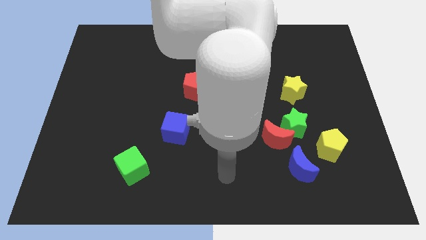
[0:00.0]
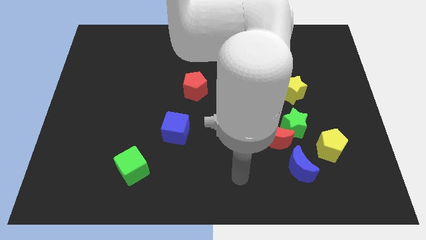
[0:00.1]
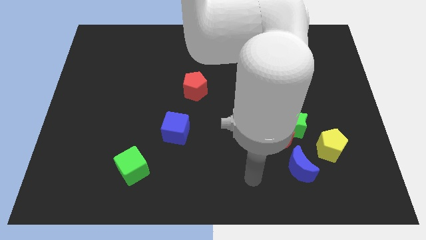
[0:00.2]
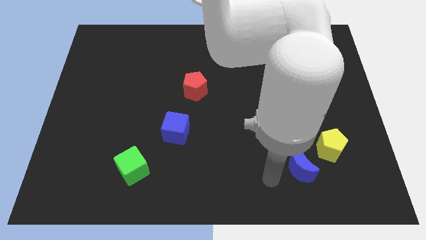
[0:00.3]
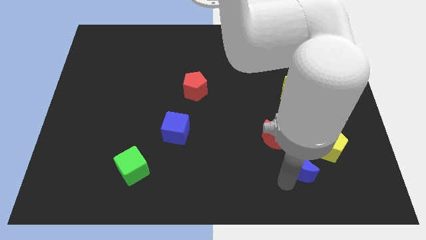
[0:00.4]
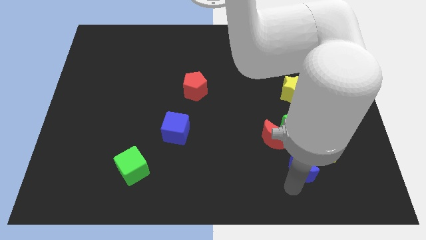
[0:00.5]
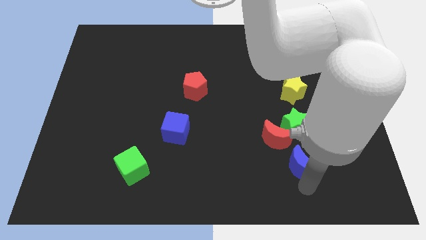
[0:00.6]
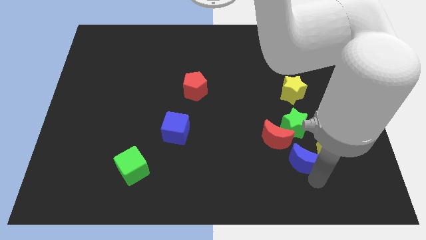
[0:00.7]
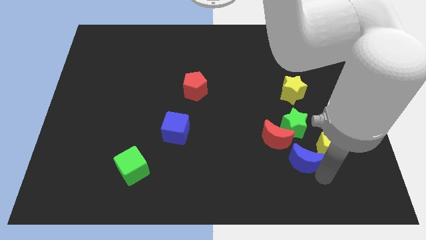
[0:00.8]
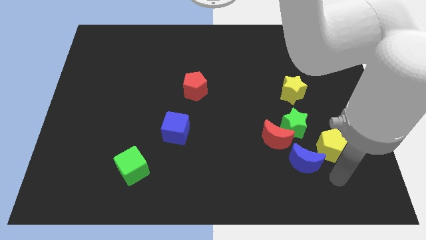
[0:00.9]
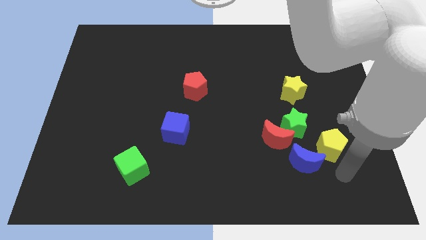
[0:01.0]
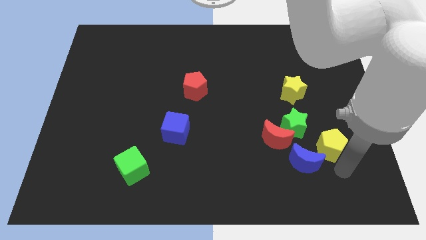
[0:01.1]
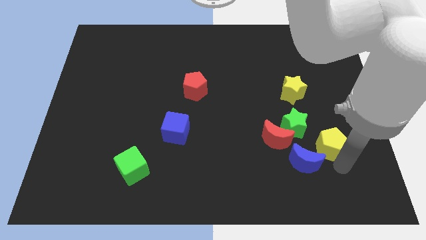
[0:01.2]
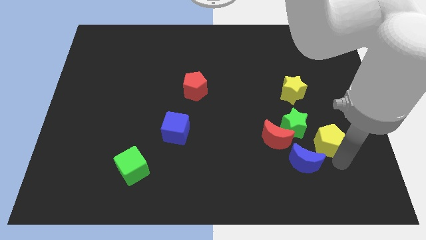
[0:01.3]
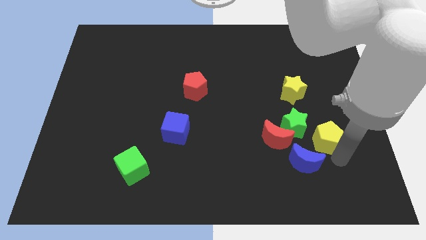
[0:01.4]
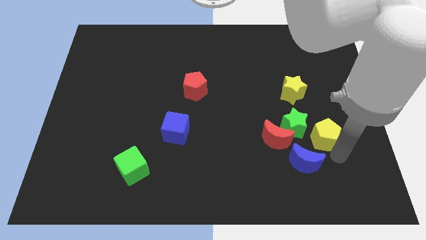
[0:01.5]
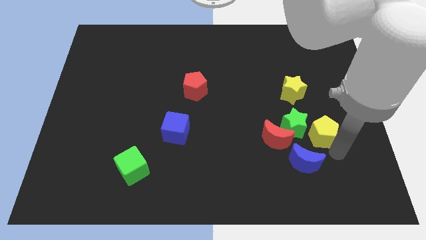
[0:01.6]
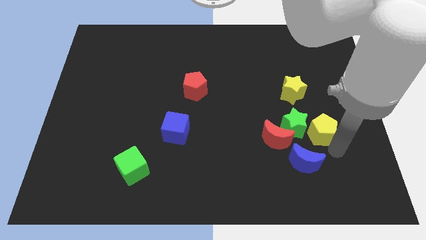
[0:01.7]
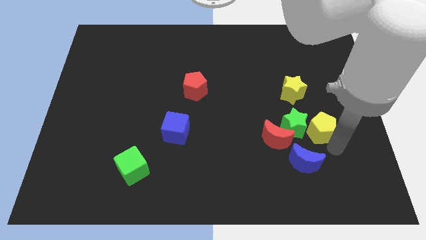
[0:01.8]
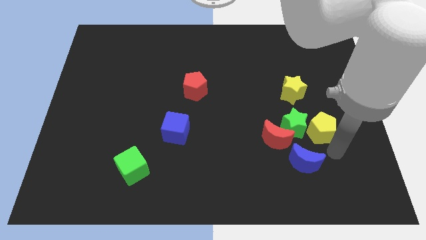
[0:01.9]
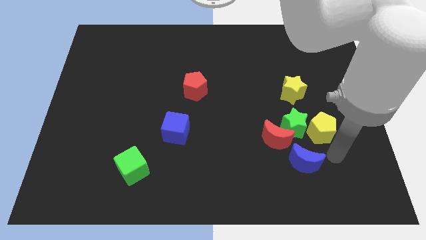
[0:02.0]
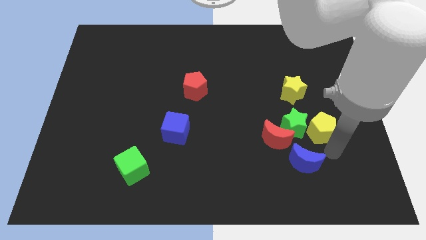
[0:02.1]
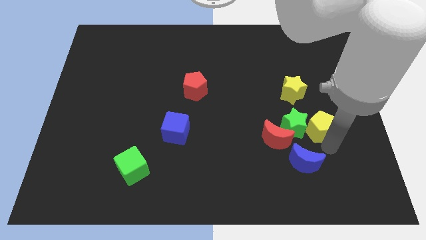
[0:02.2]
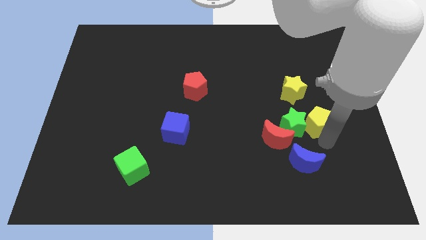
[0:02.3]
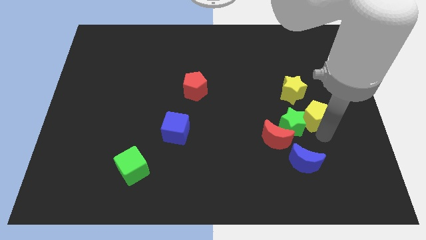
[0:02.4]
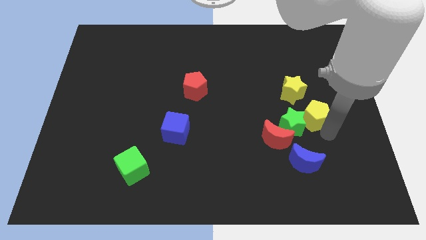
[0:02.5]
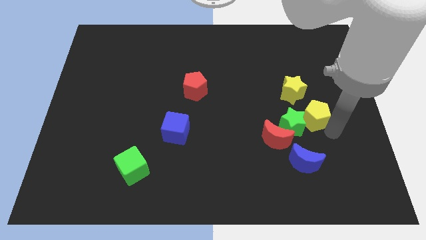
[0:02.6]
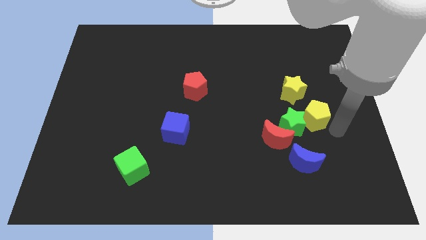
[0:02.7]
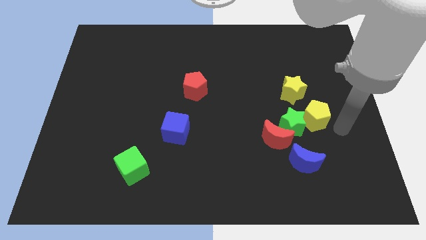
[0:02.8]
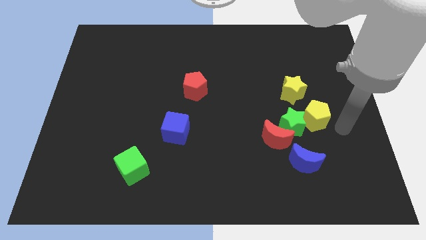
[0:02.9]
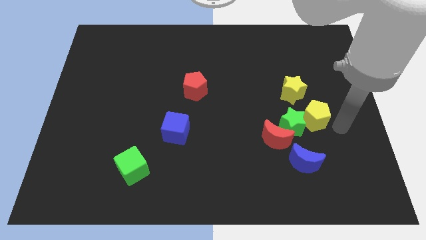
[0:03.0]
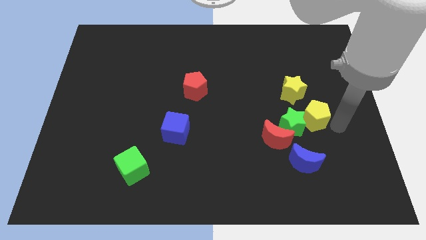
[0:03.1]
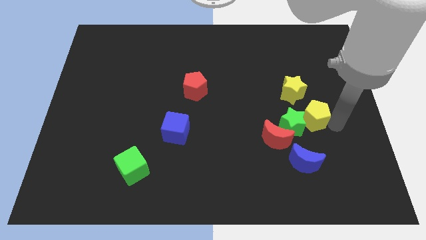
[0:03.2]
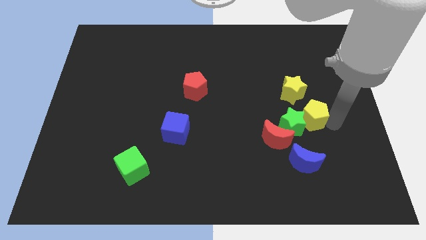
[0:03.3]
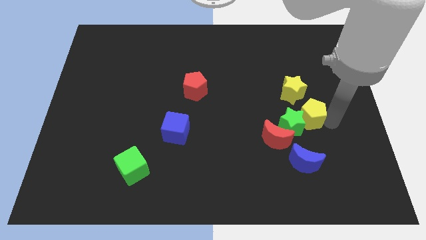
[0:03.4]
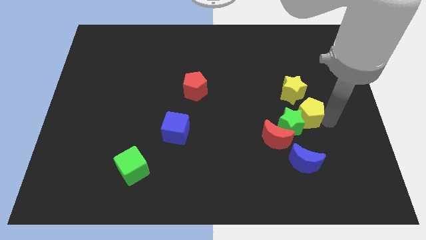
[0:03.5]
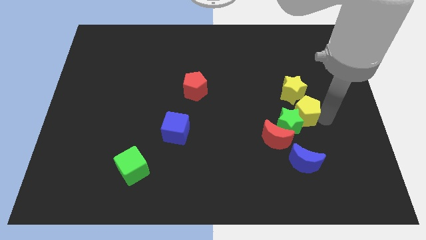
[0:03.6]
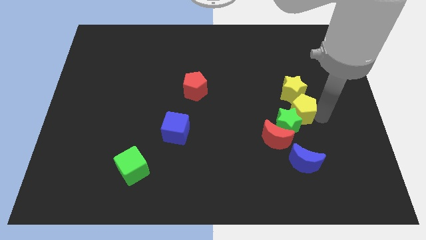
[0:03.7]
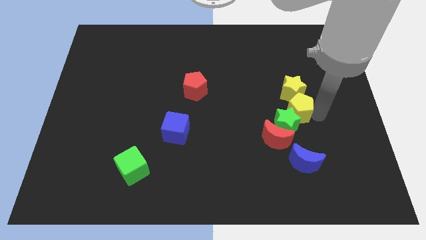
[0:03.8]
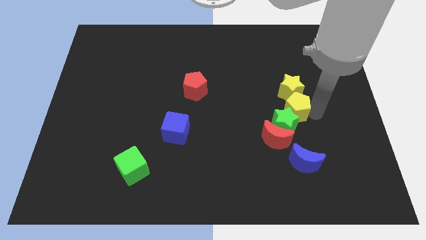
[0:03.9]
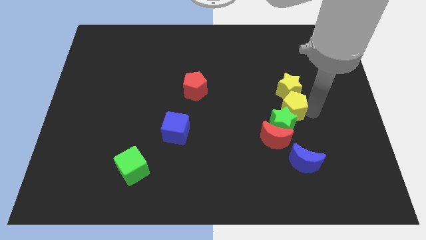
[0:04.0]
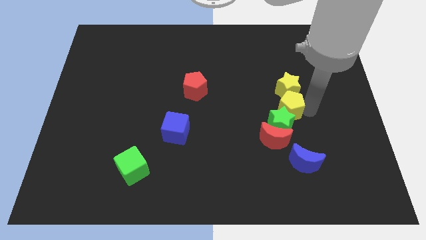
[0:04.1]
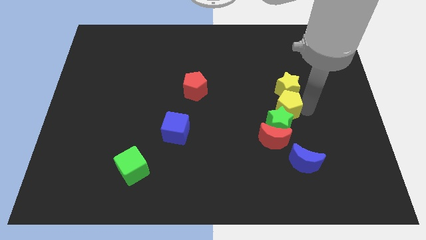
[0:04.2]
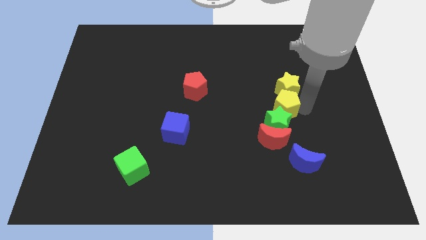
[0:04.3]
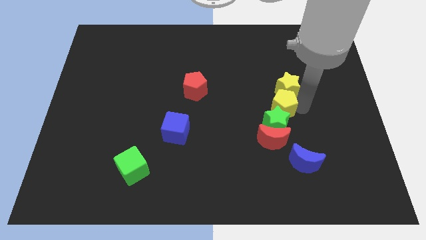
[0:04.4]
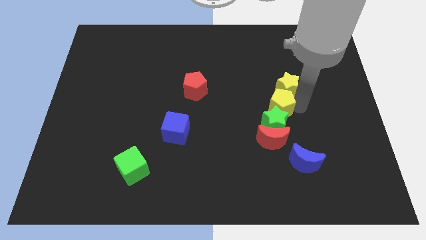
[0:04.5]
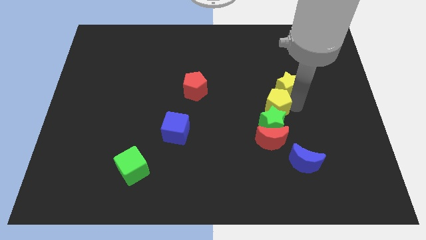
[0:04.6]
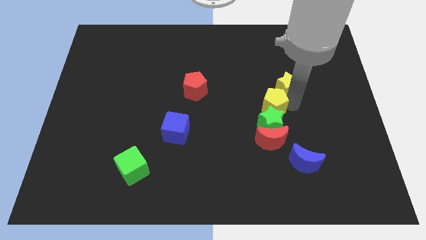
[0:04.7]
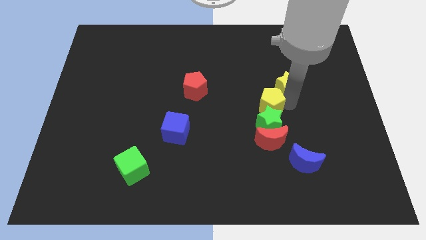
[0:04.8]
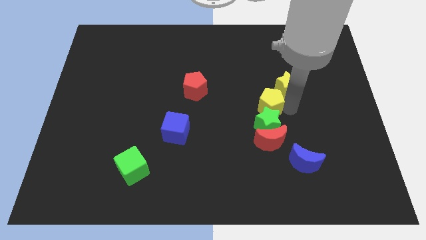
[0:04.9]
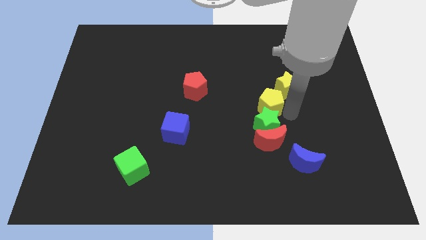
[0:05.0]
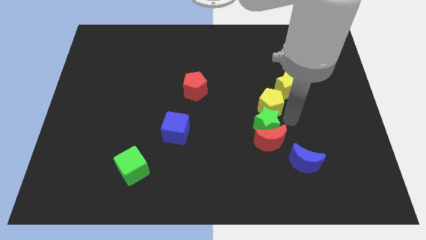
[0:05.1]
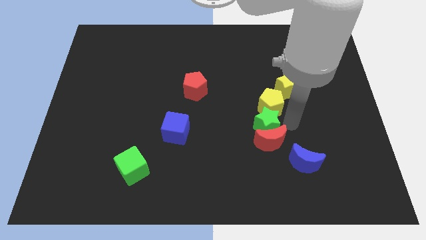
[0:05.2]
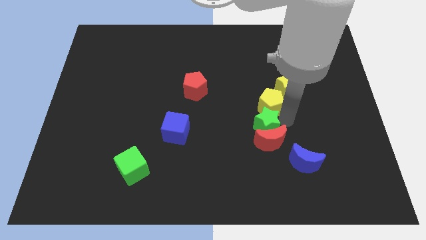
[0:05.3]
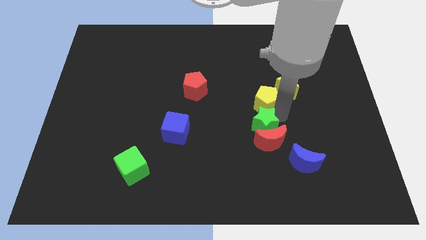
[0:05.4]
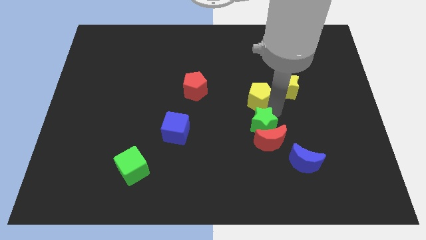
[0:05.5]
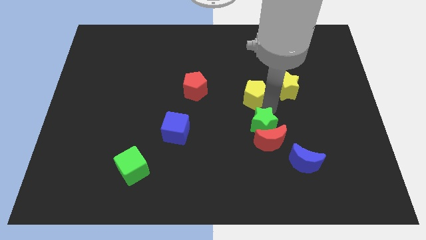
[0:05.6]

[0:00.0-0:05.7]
push the yellow pentagon up and then to the left

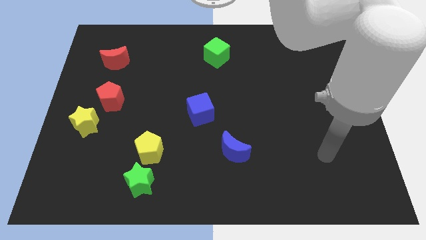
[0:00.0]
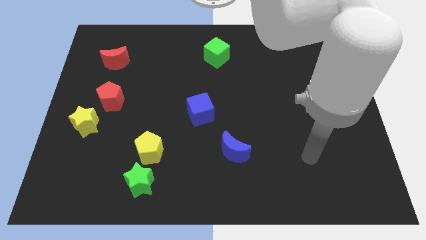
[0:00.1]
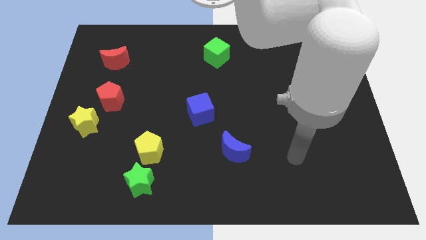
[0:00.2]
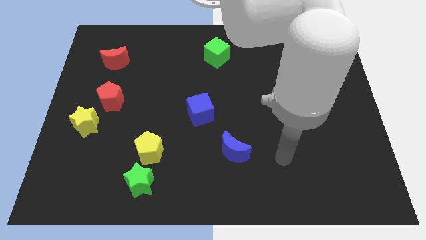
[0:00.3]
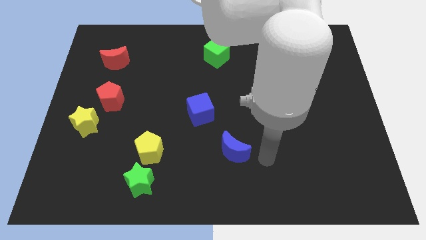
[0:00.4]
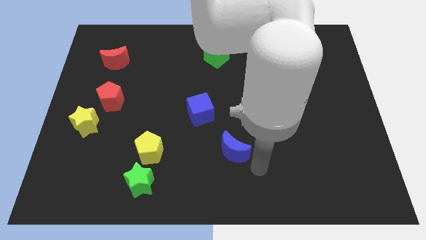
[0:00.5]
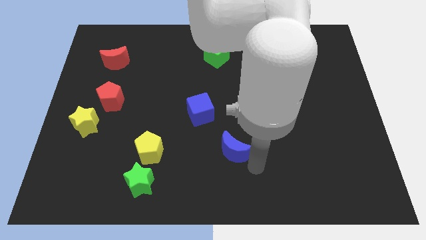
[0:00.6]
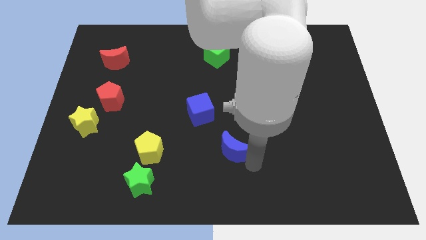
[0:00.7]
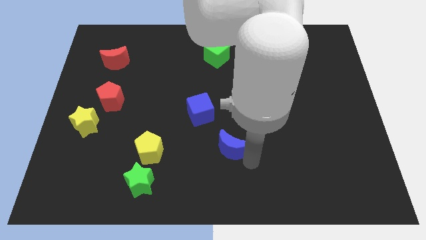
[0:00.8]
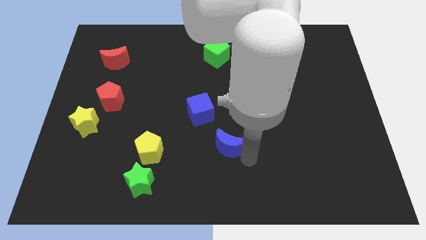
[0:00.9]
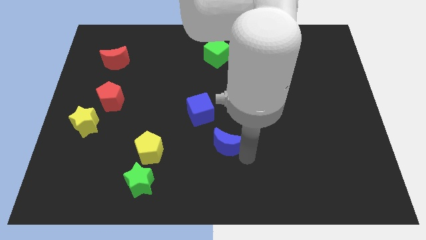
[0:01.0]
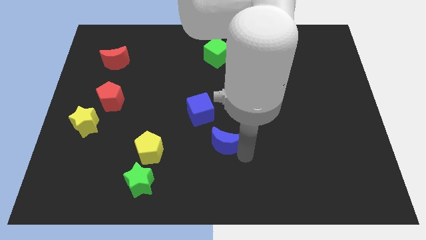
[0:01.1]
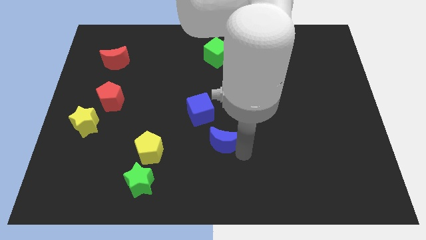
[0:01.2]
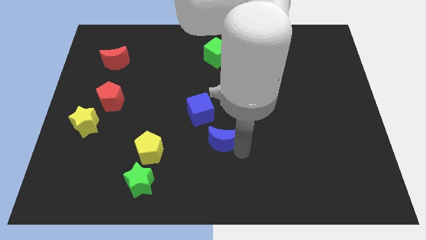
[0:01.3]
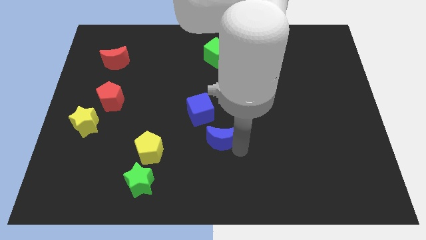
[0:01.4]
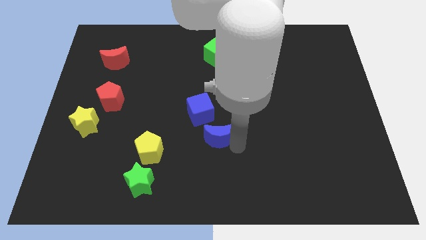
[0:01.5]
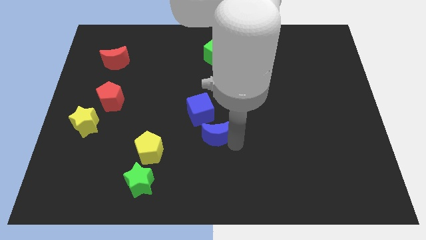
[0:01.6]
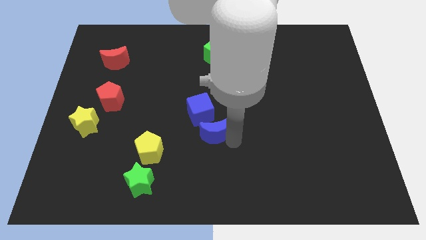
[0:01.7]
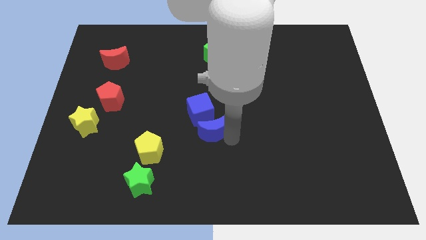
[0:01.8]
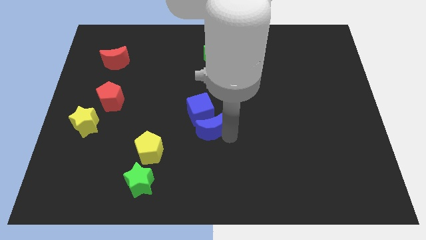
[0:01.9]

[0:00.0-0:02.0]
slightly push the blue moon up and left

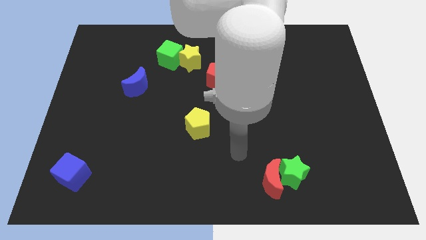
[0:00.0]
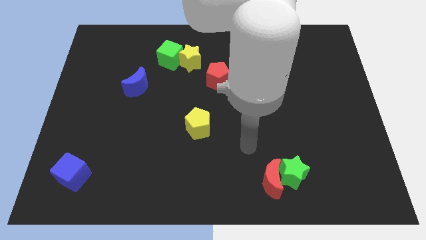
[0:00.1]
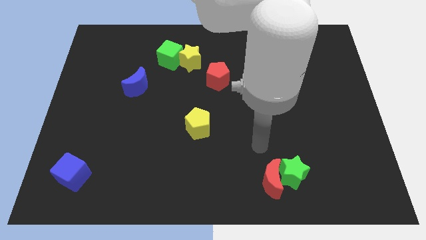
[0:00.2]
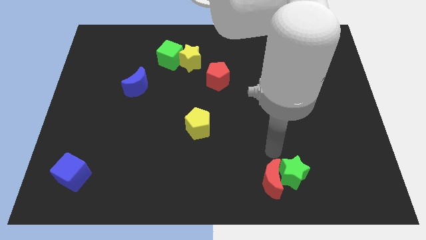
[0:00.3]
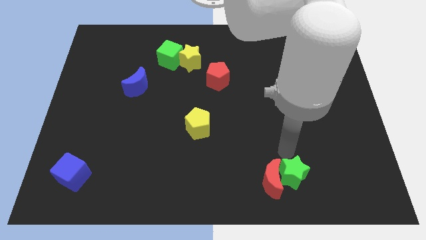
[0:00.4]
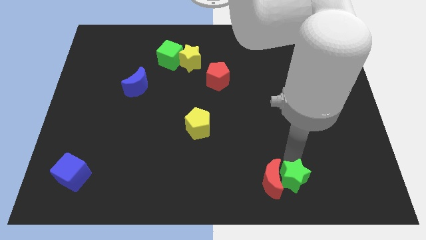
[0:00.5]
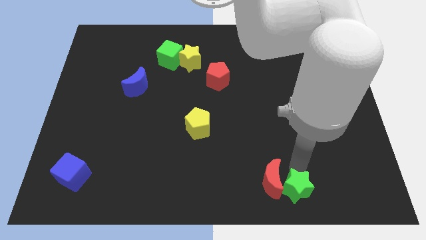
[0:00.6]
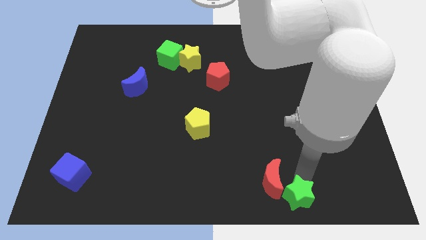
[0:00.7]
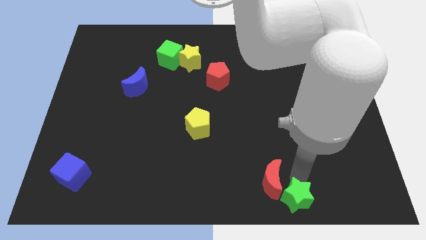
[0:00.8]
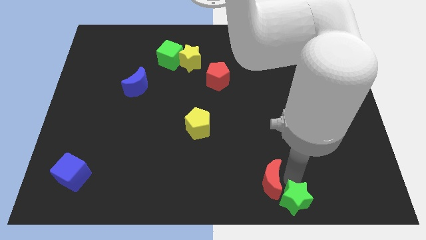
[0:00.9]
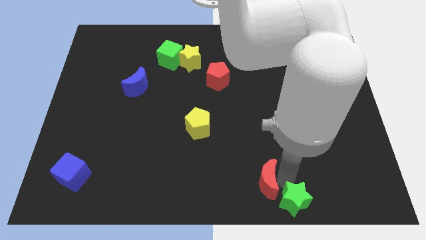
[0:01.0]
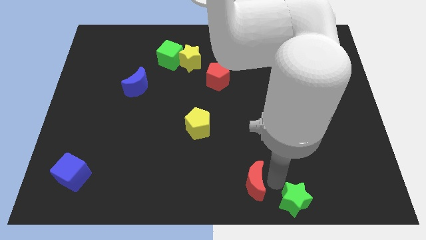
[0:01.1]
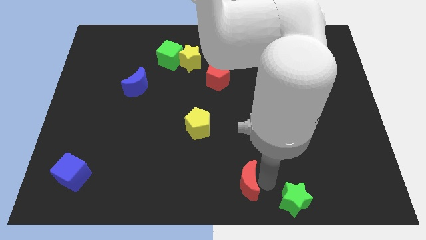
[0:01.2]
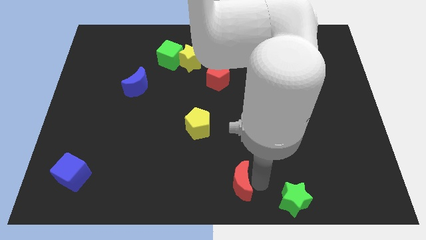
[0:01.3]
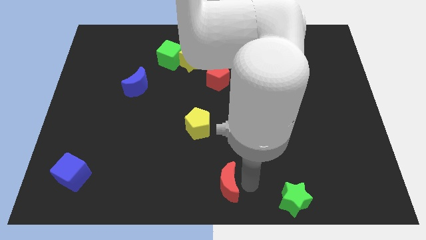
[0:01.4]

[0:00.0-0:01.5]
move the red moon to the left a little bit
